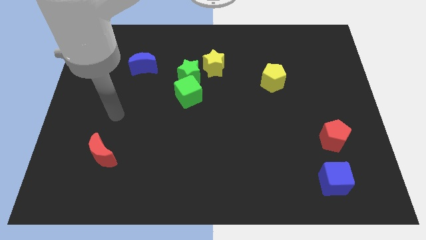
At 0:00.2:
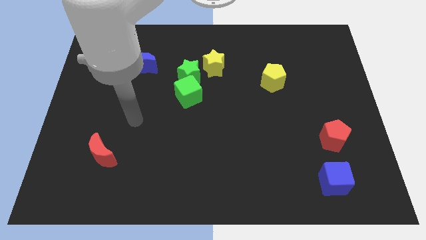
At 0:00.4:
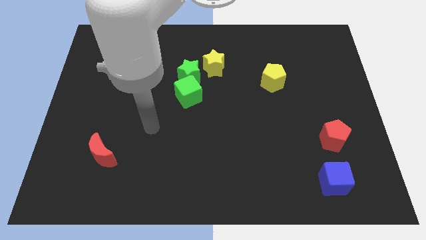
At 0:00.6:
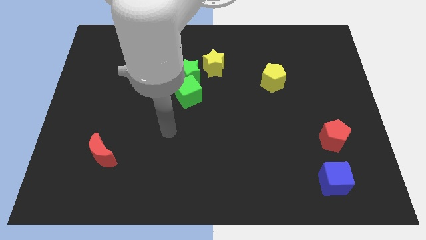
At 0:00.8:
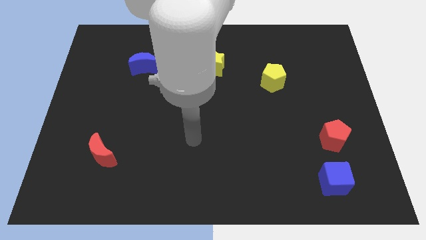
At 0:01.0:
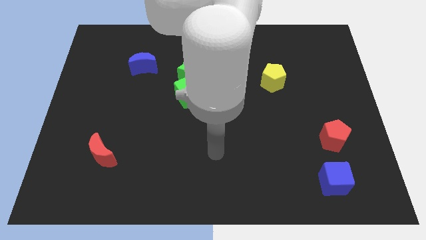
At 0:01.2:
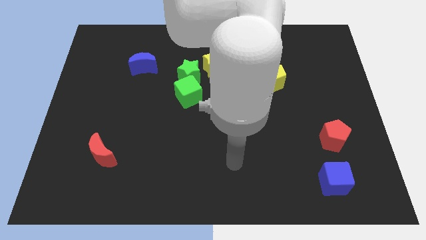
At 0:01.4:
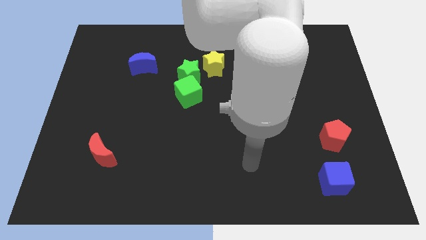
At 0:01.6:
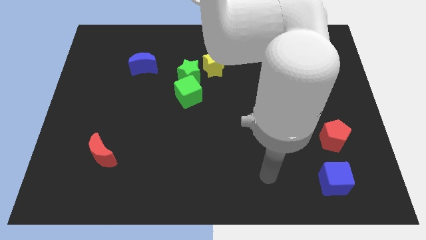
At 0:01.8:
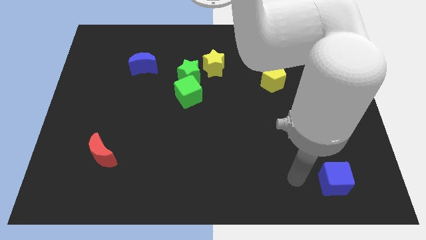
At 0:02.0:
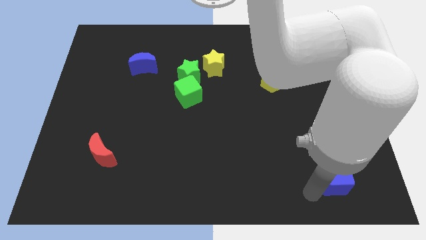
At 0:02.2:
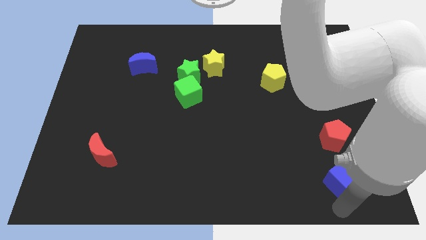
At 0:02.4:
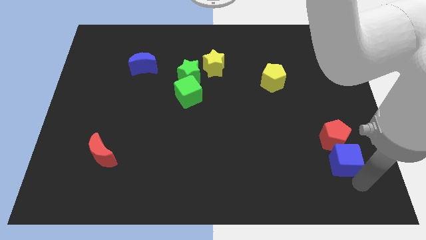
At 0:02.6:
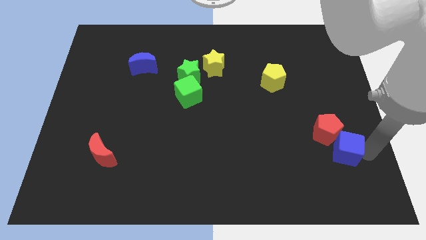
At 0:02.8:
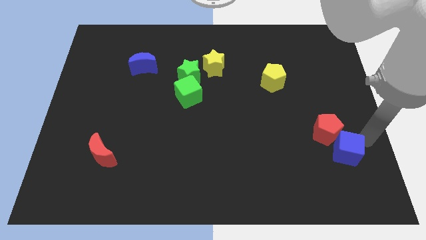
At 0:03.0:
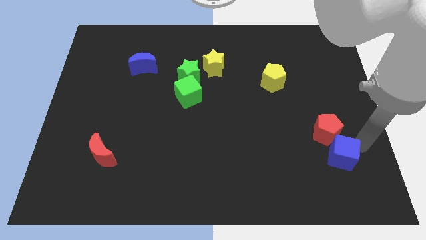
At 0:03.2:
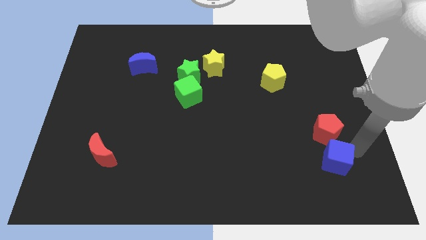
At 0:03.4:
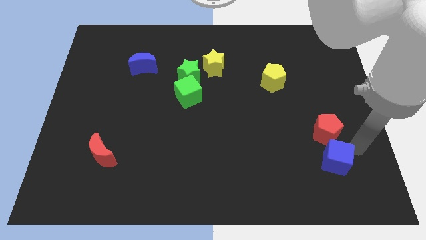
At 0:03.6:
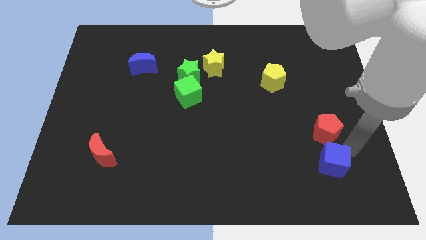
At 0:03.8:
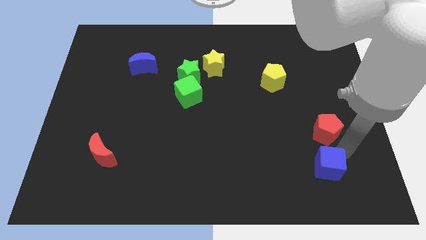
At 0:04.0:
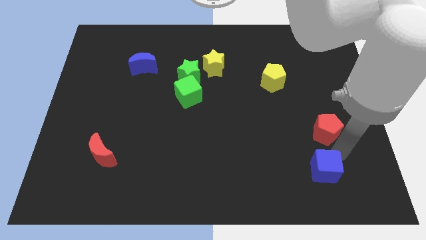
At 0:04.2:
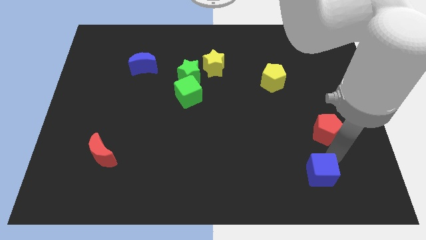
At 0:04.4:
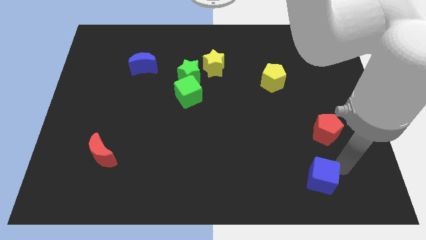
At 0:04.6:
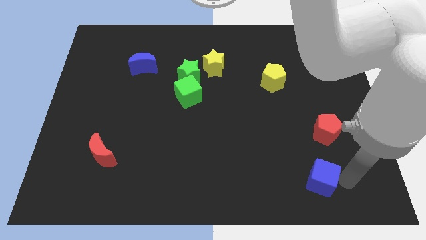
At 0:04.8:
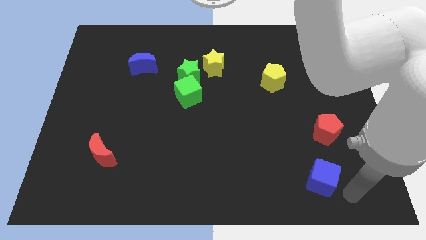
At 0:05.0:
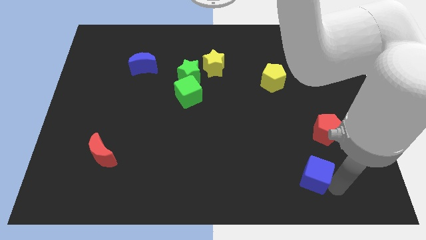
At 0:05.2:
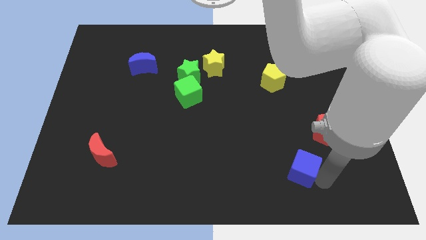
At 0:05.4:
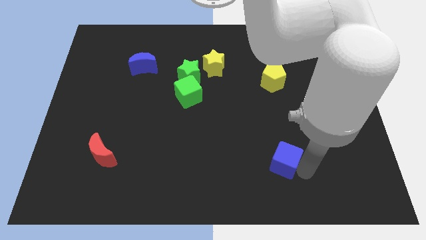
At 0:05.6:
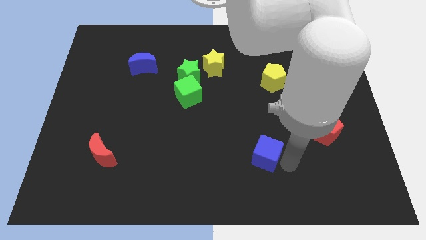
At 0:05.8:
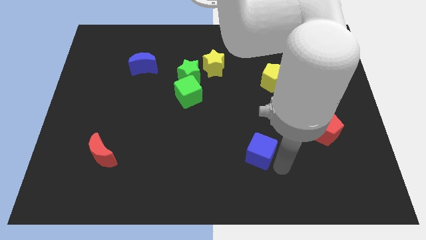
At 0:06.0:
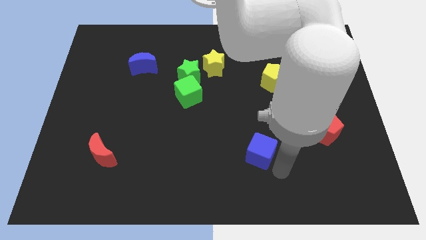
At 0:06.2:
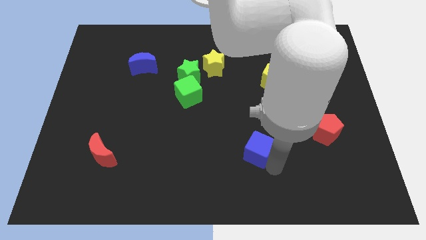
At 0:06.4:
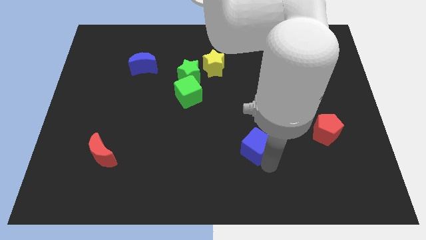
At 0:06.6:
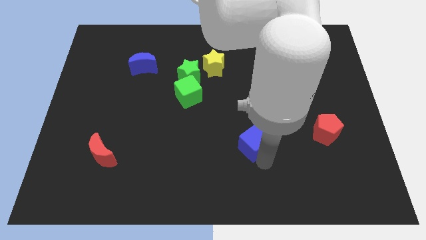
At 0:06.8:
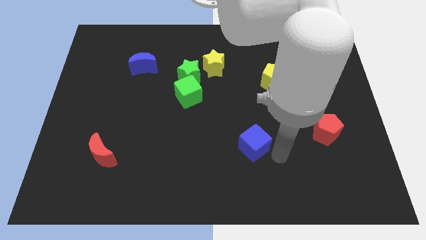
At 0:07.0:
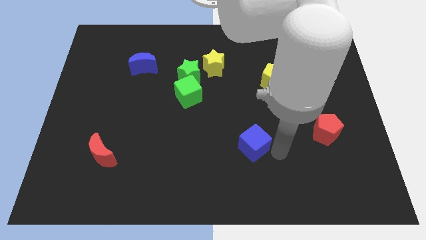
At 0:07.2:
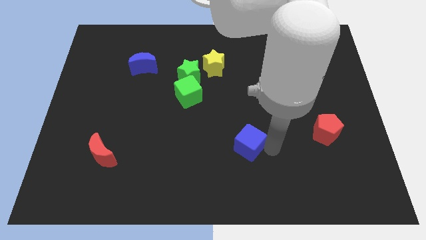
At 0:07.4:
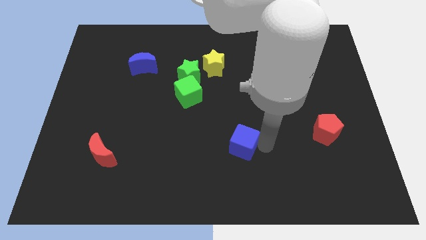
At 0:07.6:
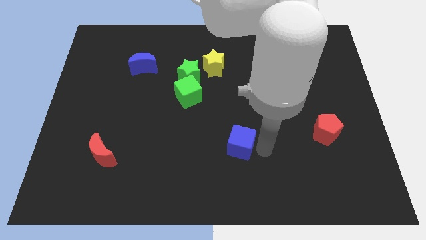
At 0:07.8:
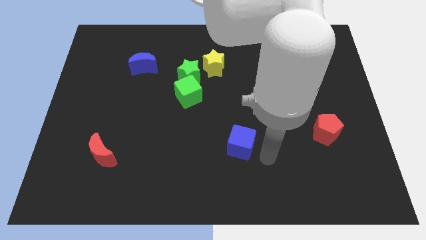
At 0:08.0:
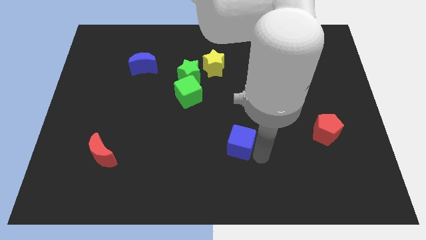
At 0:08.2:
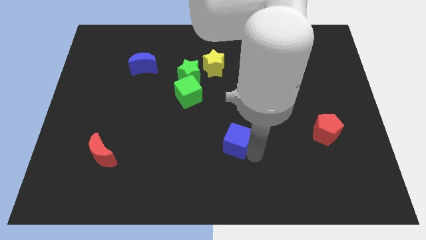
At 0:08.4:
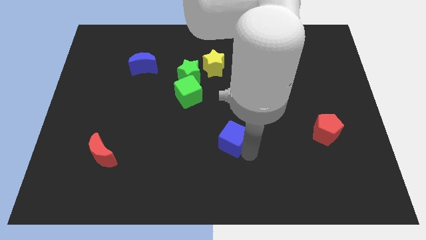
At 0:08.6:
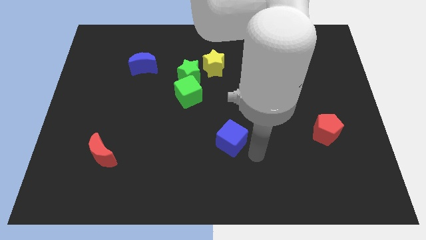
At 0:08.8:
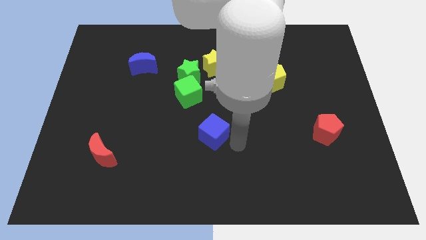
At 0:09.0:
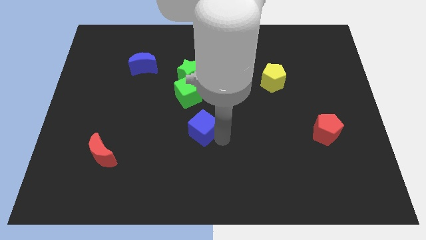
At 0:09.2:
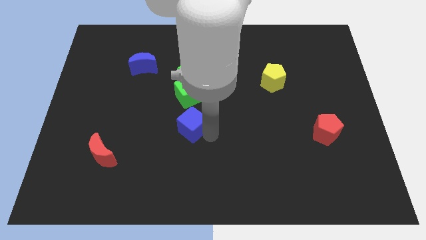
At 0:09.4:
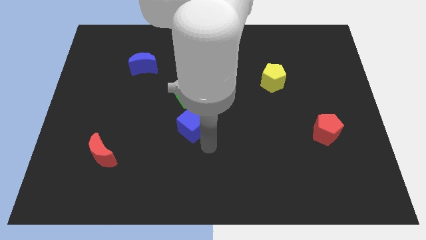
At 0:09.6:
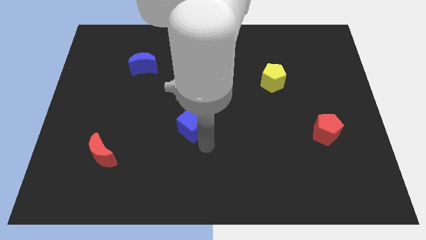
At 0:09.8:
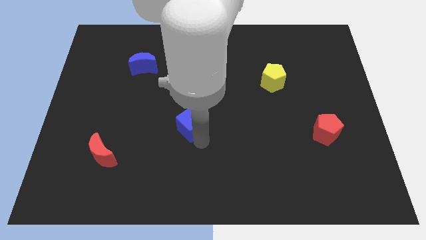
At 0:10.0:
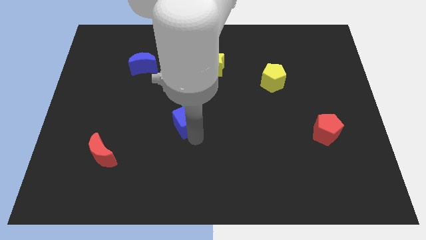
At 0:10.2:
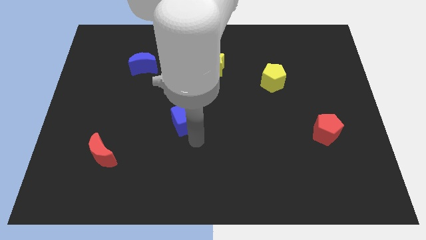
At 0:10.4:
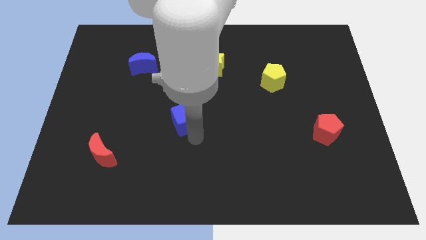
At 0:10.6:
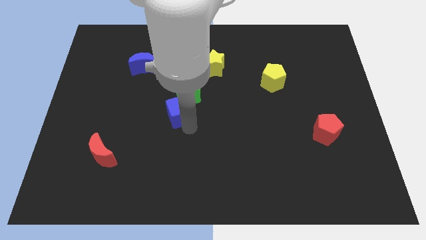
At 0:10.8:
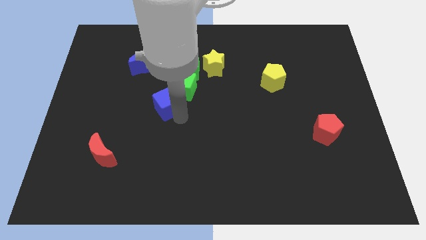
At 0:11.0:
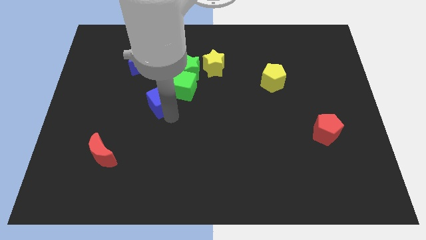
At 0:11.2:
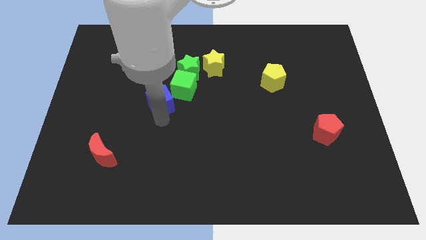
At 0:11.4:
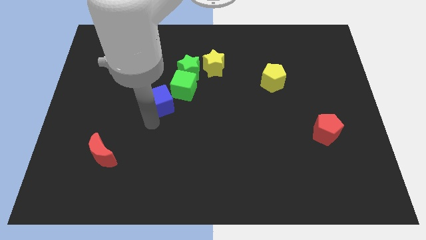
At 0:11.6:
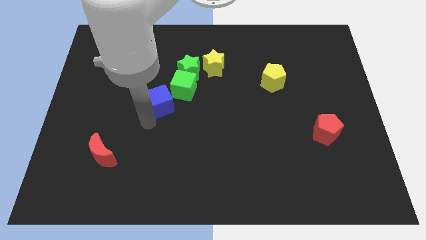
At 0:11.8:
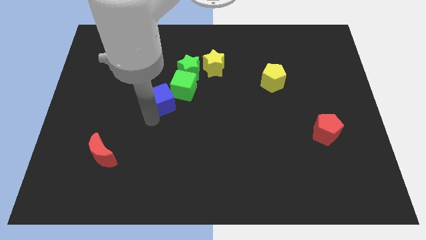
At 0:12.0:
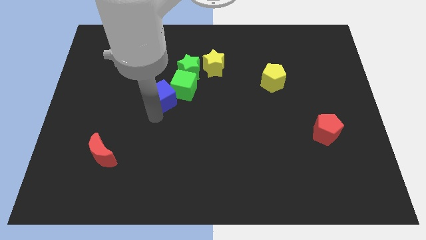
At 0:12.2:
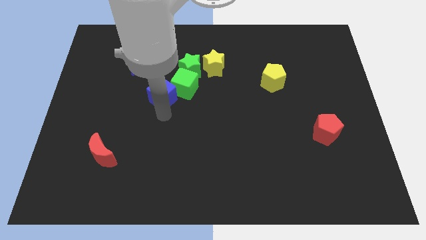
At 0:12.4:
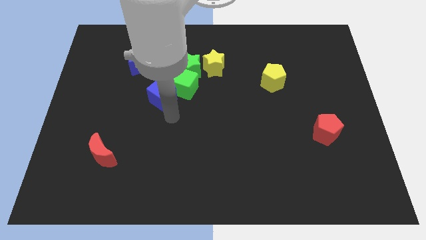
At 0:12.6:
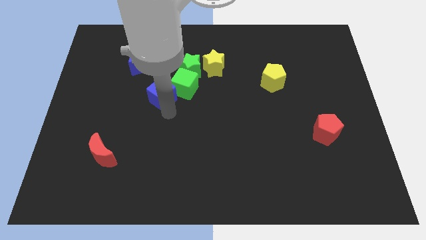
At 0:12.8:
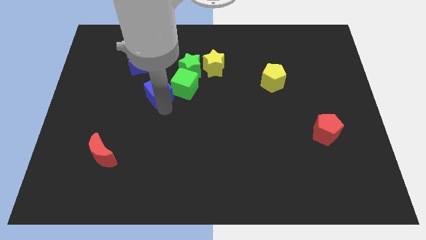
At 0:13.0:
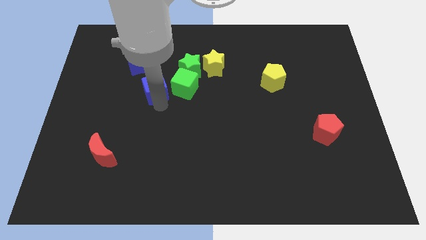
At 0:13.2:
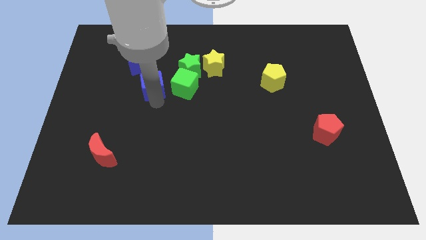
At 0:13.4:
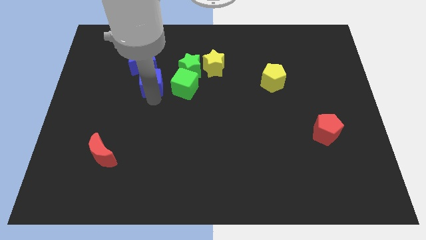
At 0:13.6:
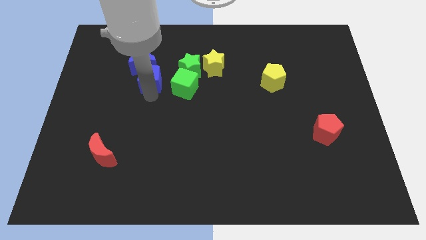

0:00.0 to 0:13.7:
push the blue cube towards the blue moon

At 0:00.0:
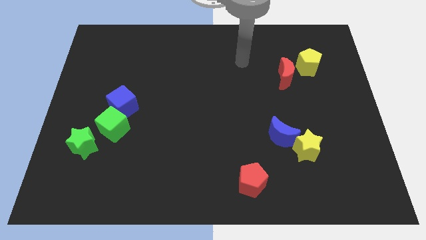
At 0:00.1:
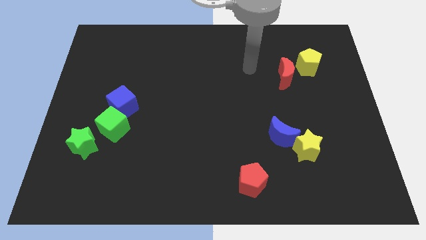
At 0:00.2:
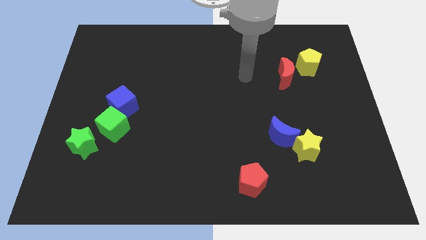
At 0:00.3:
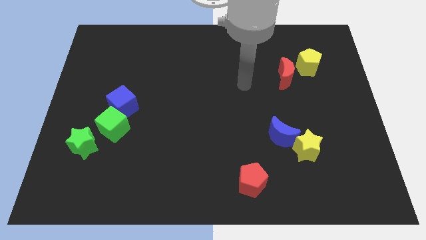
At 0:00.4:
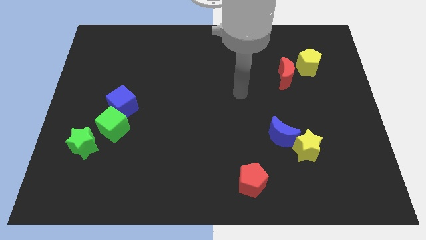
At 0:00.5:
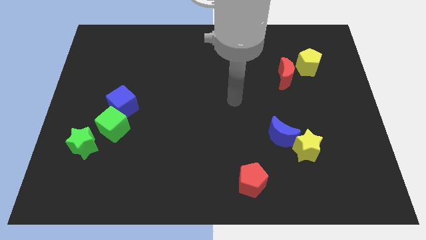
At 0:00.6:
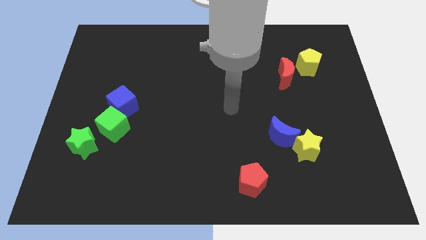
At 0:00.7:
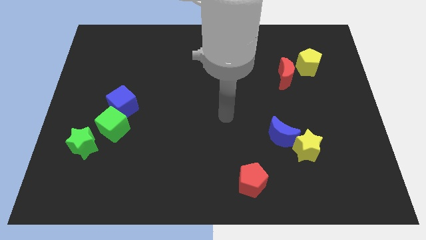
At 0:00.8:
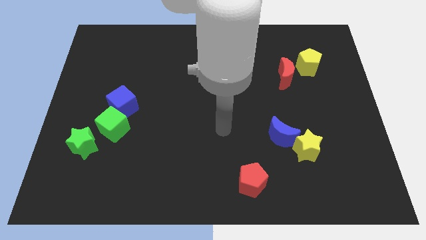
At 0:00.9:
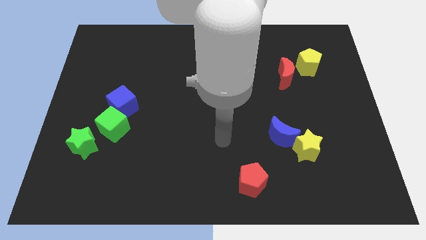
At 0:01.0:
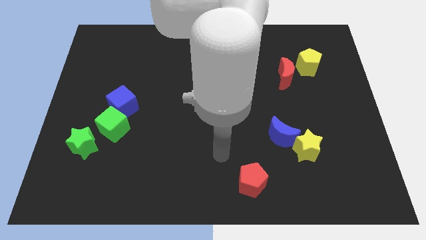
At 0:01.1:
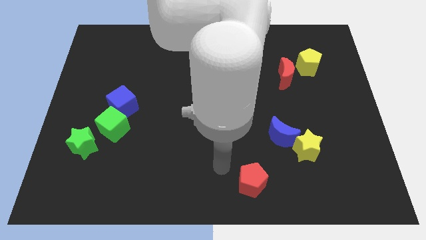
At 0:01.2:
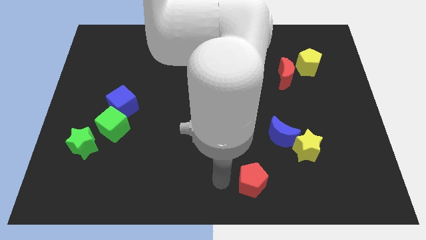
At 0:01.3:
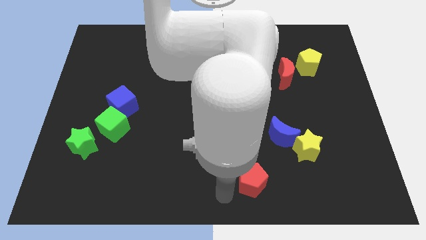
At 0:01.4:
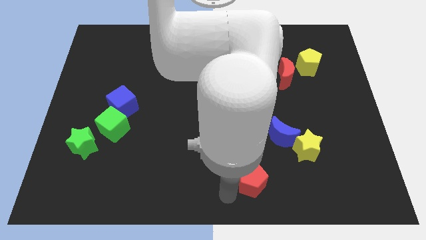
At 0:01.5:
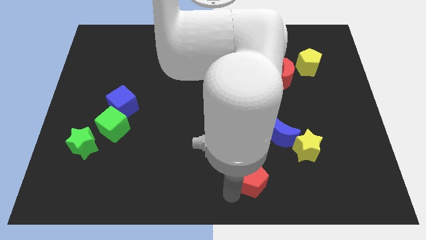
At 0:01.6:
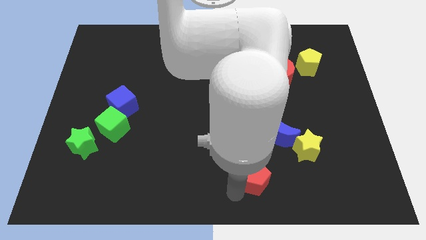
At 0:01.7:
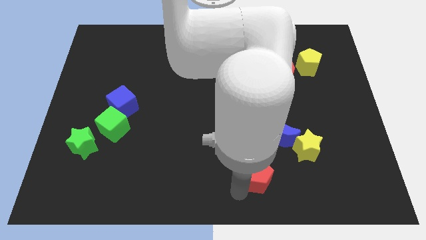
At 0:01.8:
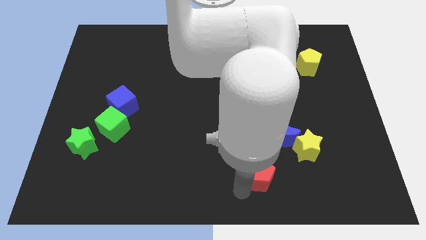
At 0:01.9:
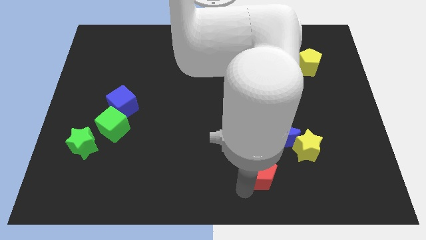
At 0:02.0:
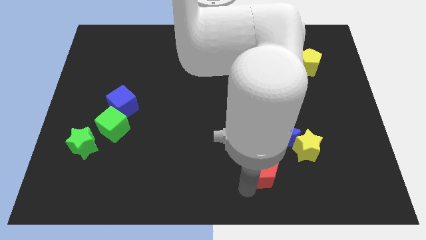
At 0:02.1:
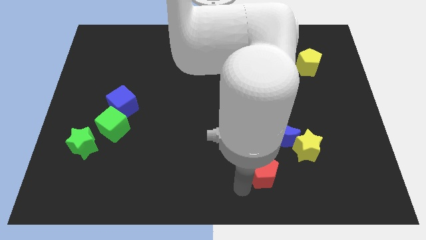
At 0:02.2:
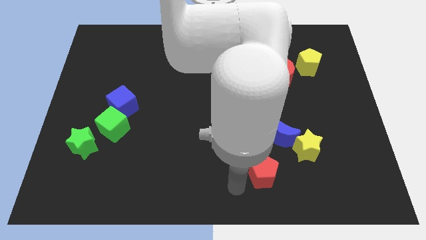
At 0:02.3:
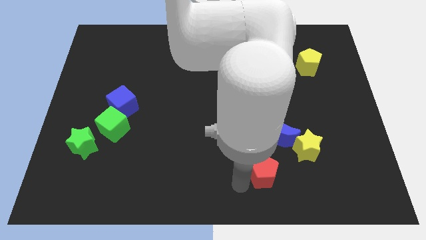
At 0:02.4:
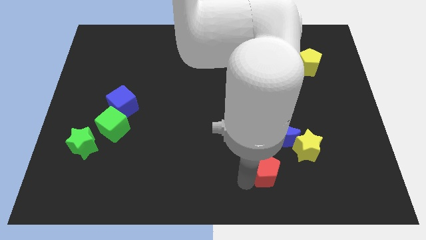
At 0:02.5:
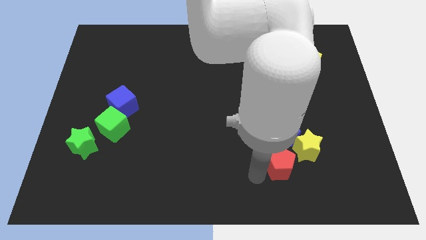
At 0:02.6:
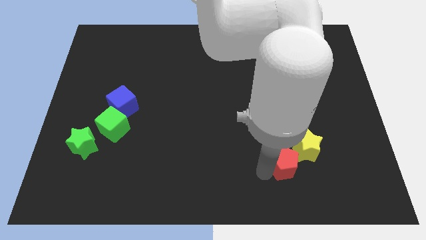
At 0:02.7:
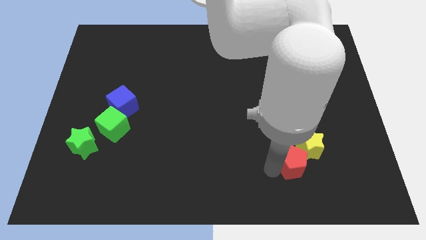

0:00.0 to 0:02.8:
put the red pentagon close to the yellow star
